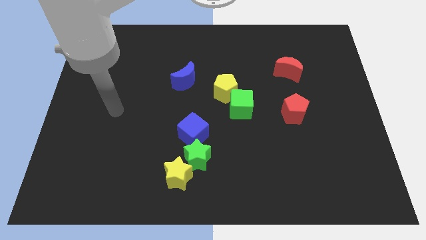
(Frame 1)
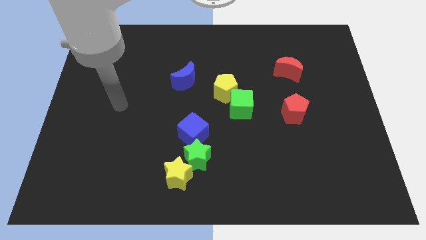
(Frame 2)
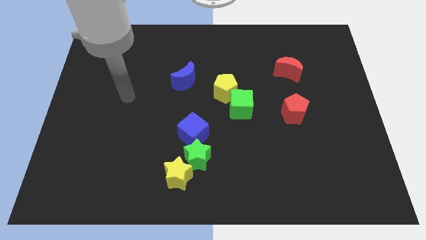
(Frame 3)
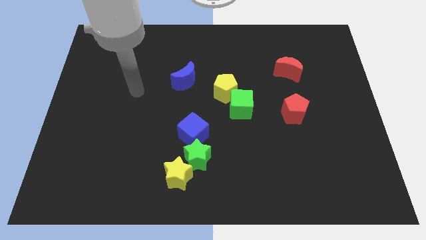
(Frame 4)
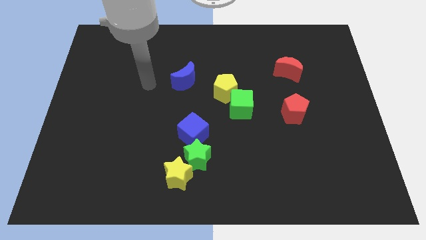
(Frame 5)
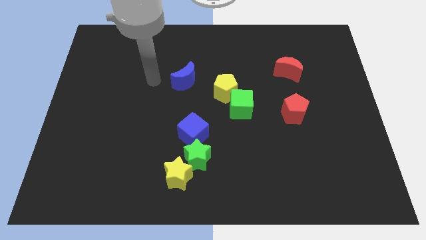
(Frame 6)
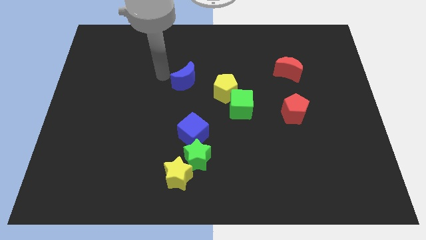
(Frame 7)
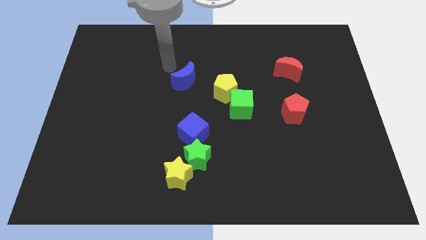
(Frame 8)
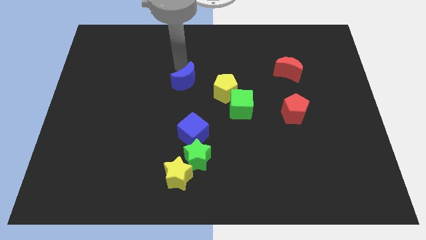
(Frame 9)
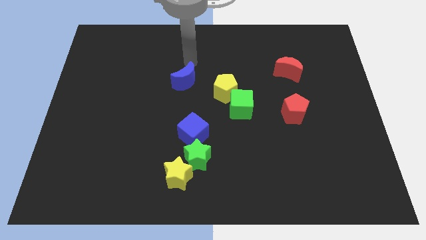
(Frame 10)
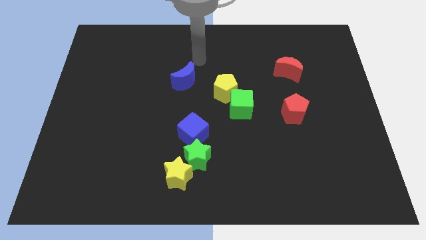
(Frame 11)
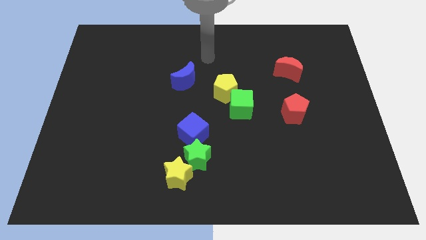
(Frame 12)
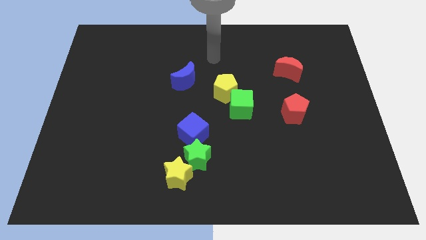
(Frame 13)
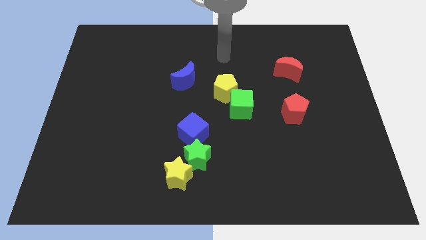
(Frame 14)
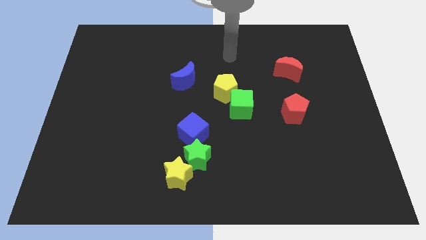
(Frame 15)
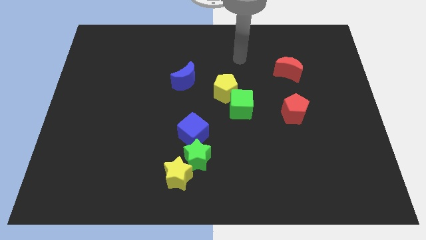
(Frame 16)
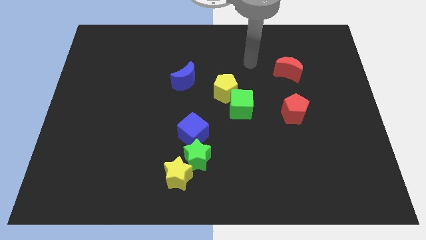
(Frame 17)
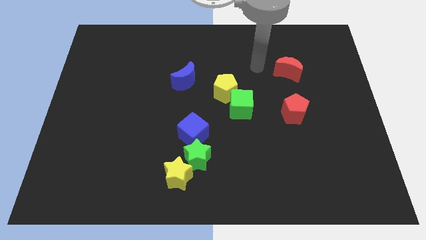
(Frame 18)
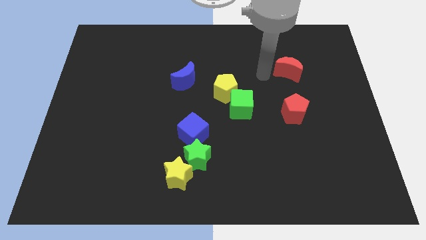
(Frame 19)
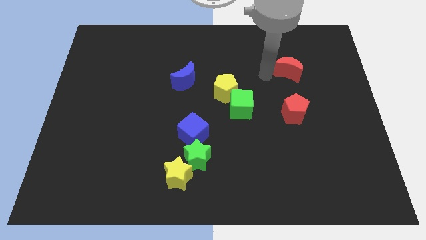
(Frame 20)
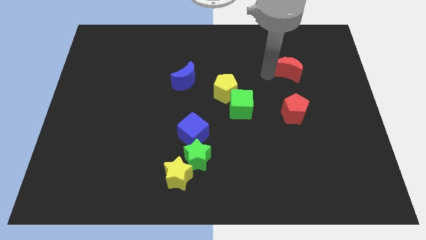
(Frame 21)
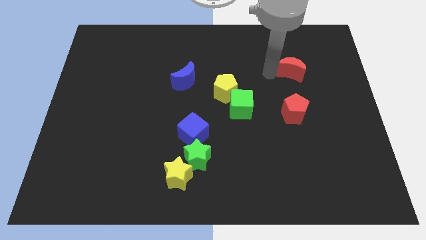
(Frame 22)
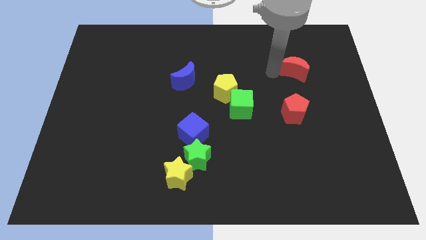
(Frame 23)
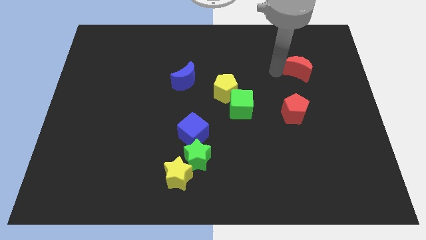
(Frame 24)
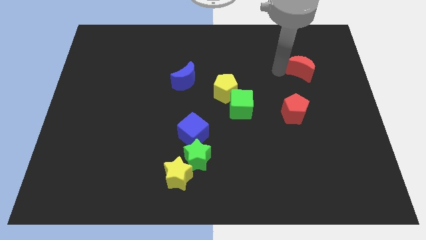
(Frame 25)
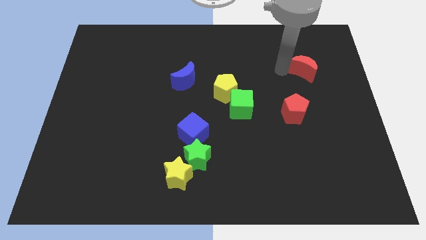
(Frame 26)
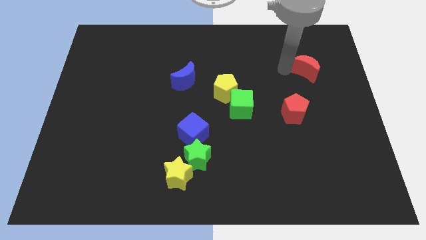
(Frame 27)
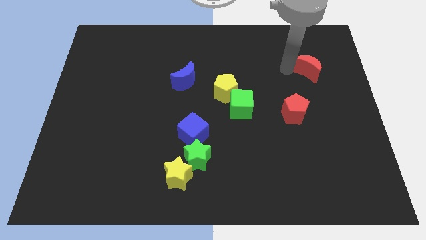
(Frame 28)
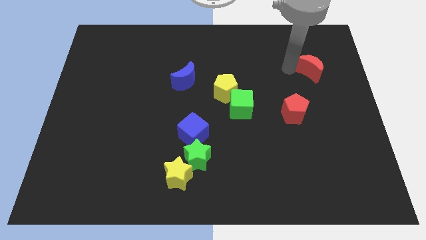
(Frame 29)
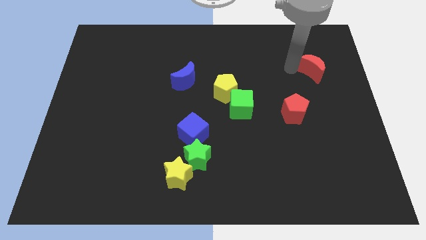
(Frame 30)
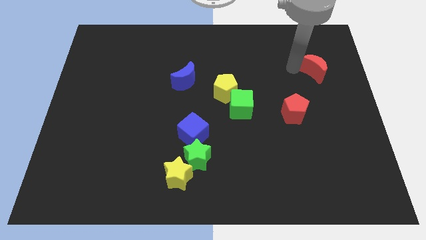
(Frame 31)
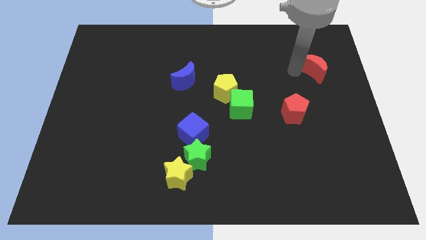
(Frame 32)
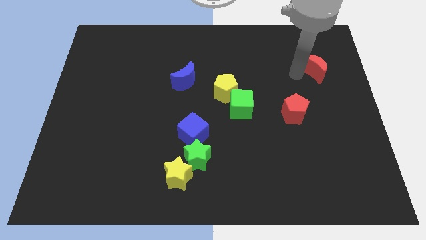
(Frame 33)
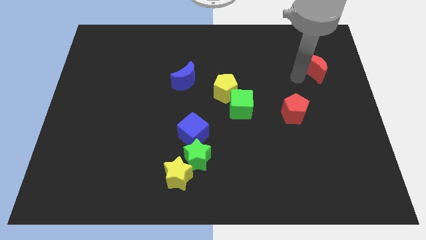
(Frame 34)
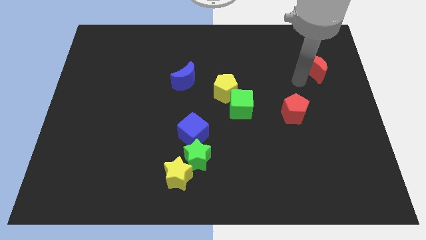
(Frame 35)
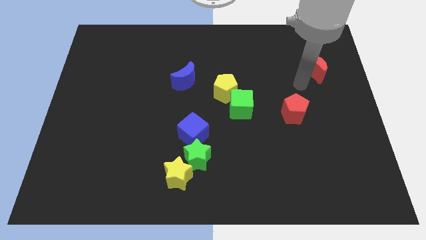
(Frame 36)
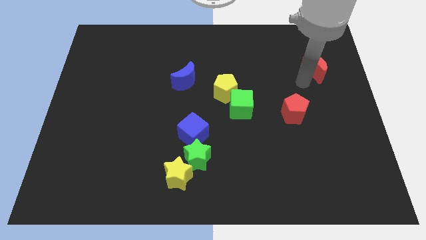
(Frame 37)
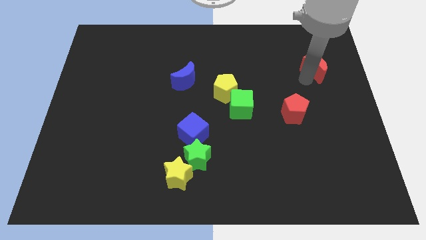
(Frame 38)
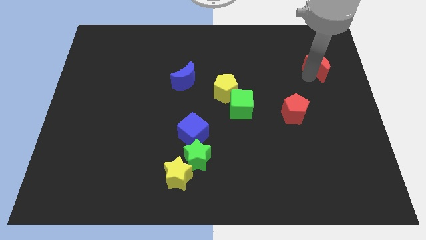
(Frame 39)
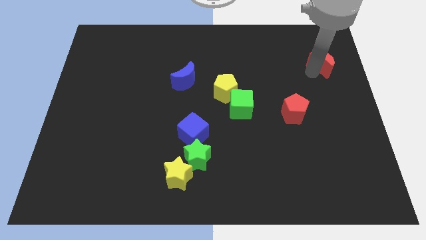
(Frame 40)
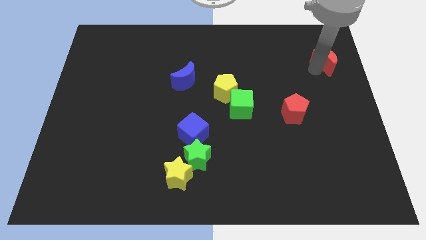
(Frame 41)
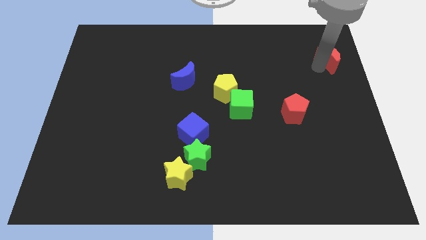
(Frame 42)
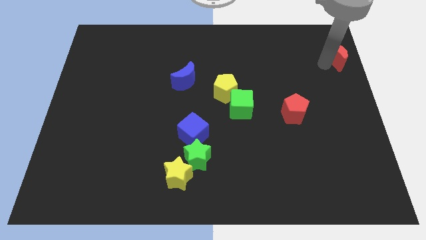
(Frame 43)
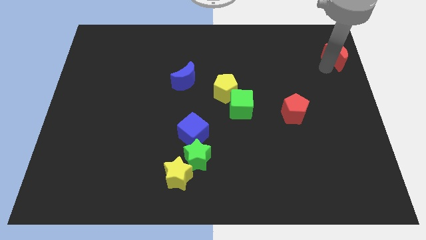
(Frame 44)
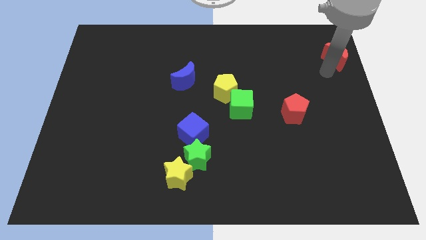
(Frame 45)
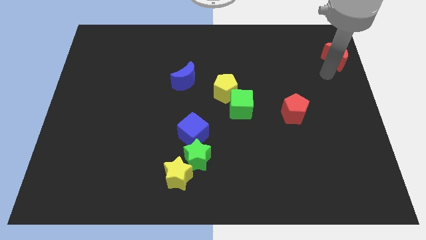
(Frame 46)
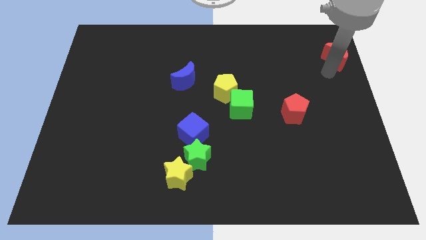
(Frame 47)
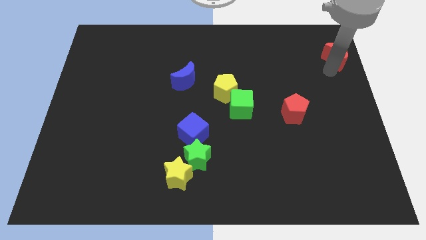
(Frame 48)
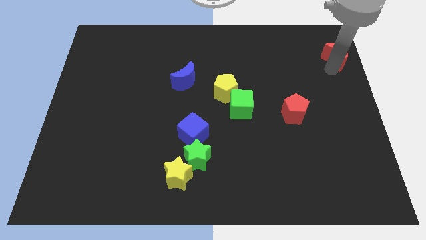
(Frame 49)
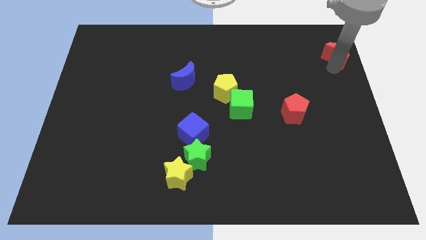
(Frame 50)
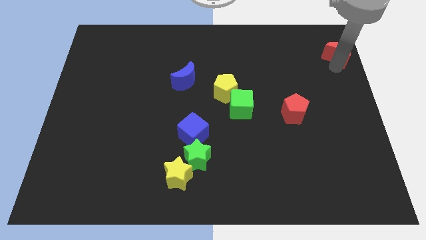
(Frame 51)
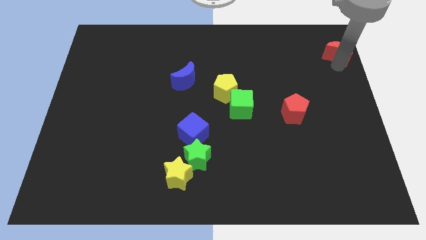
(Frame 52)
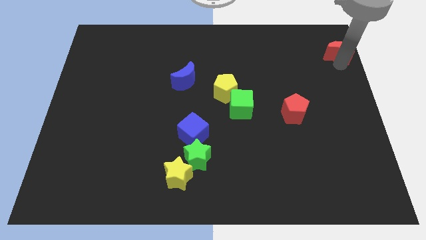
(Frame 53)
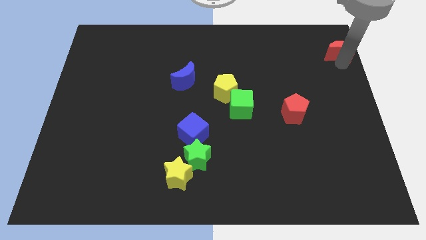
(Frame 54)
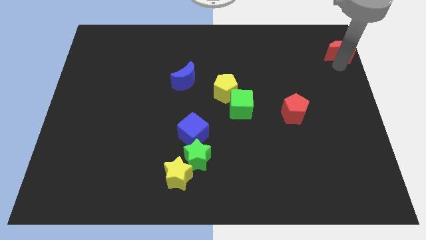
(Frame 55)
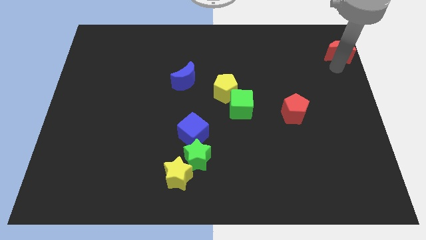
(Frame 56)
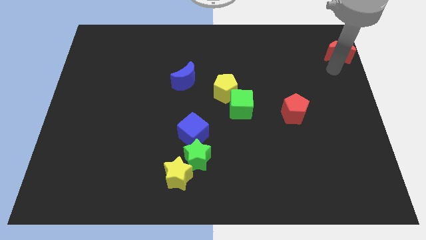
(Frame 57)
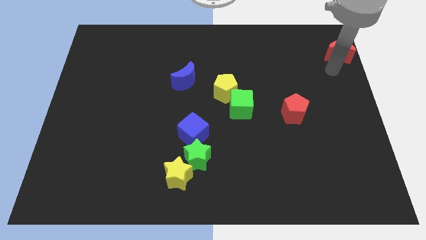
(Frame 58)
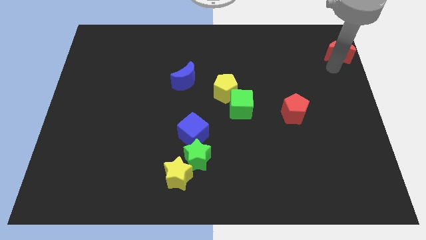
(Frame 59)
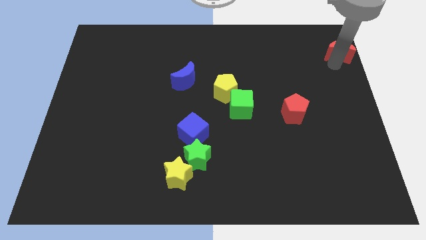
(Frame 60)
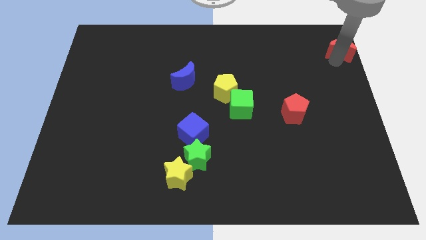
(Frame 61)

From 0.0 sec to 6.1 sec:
push the red moon to the top right corner
